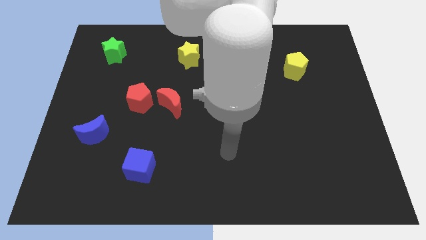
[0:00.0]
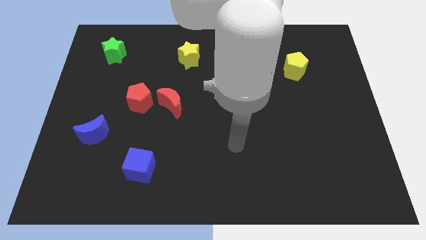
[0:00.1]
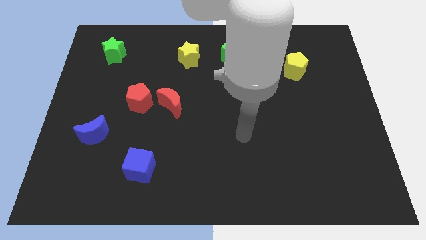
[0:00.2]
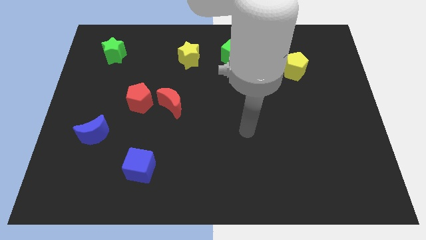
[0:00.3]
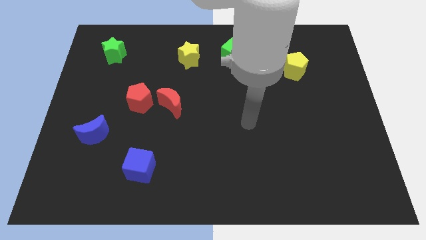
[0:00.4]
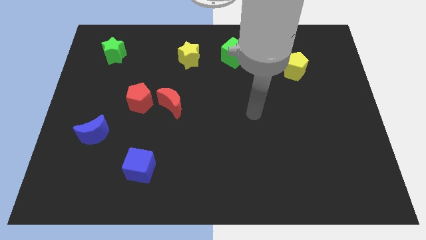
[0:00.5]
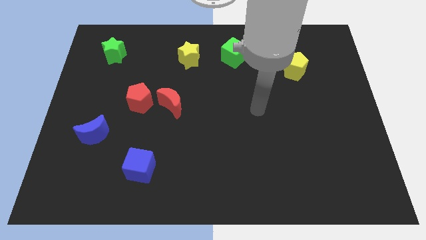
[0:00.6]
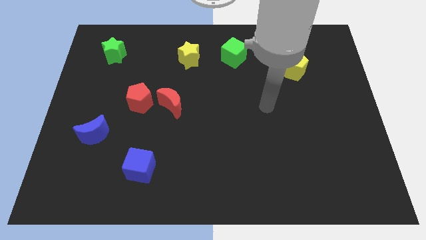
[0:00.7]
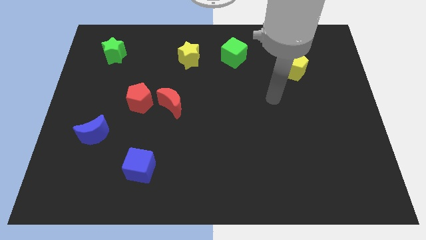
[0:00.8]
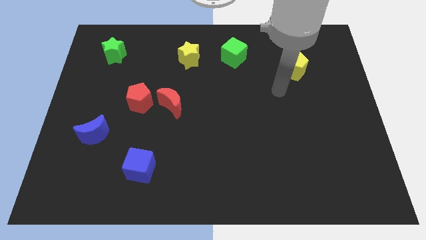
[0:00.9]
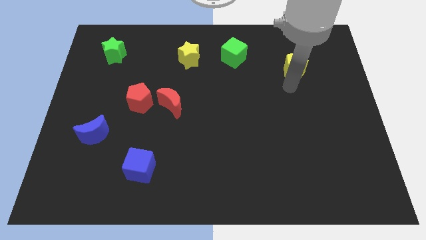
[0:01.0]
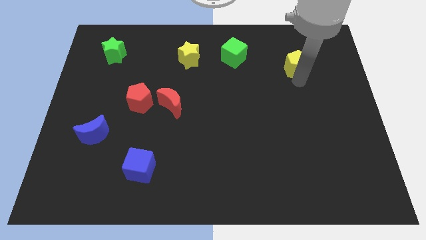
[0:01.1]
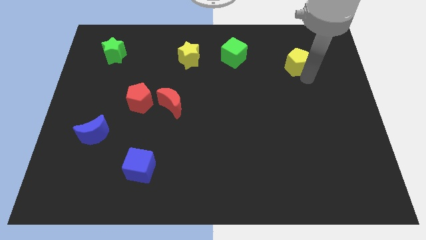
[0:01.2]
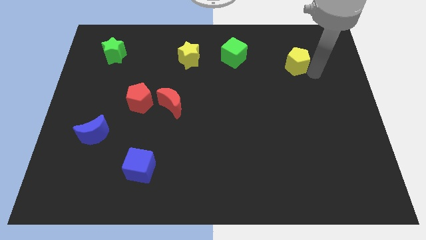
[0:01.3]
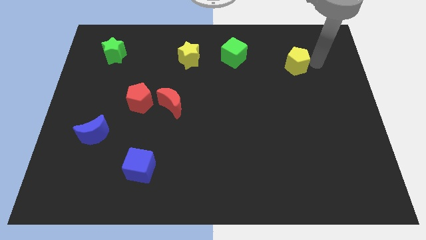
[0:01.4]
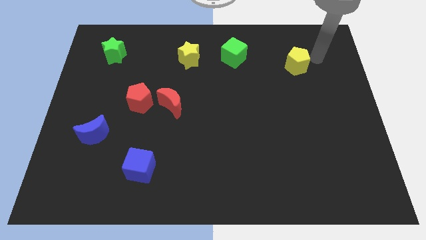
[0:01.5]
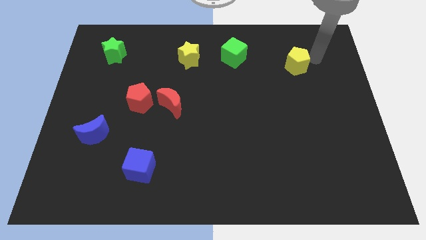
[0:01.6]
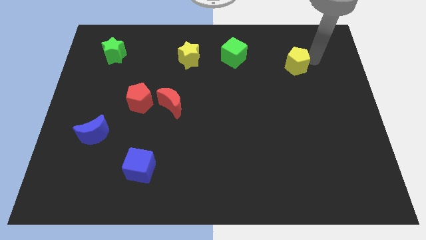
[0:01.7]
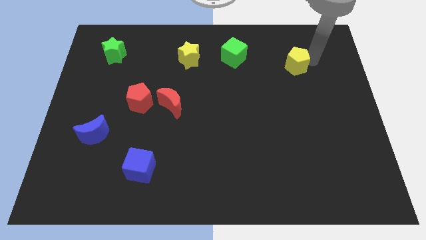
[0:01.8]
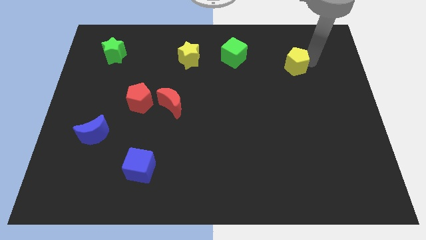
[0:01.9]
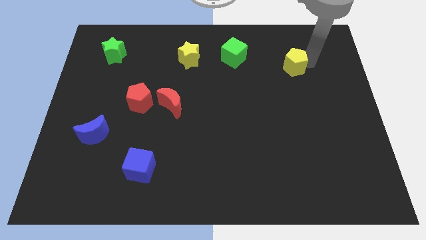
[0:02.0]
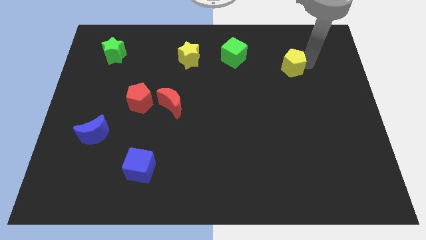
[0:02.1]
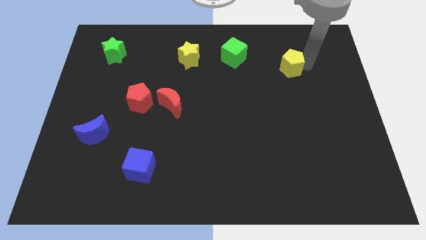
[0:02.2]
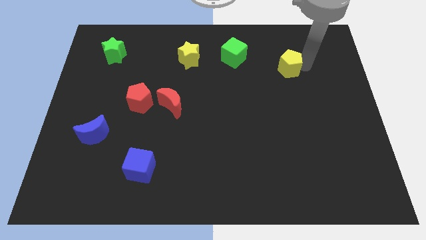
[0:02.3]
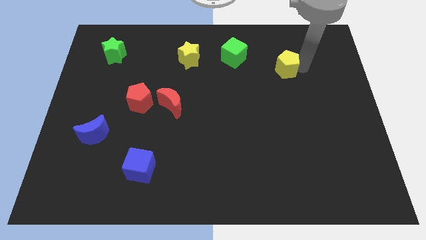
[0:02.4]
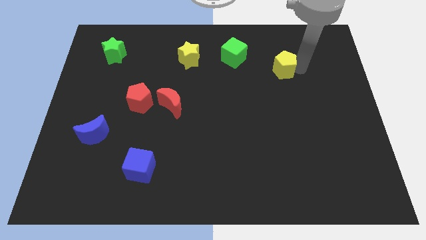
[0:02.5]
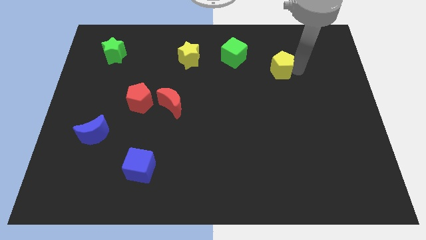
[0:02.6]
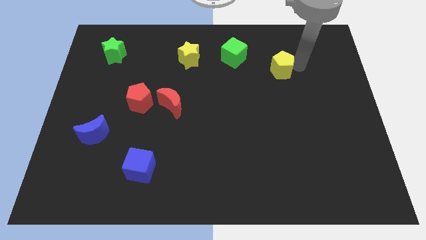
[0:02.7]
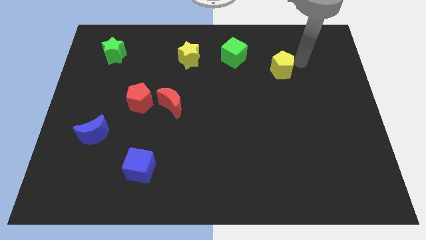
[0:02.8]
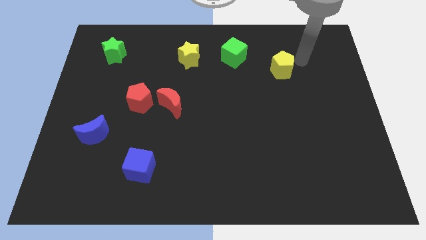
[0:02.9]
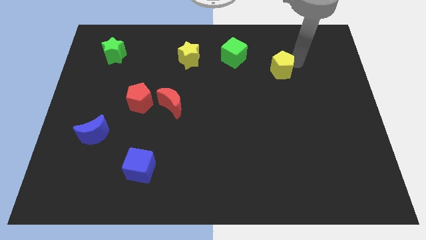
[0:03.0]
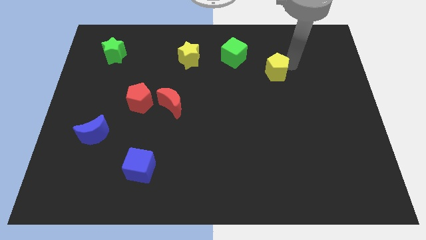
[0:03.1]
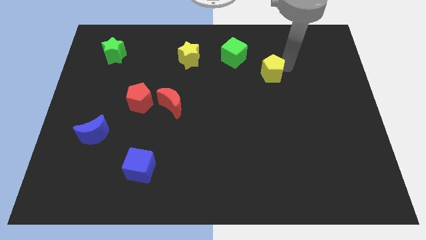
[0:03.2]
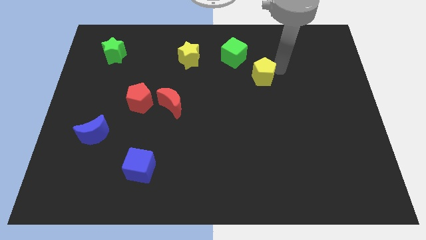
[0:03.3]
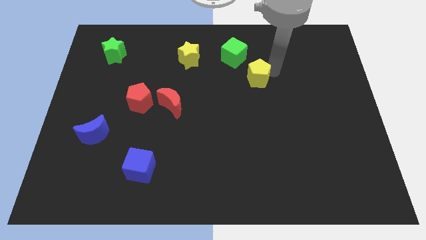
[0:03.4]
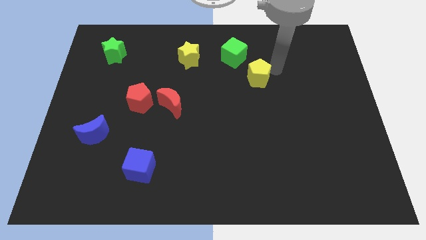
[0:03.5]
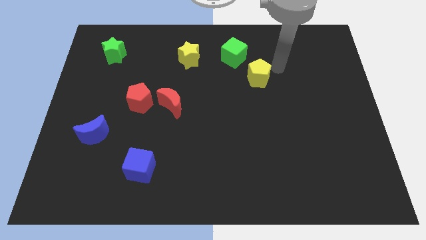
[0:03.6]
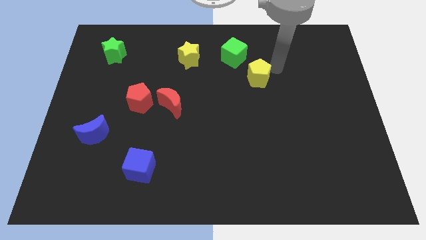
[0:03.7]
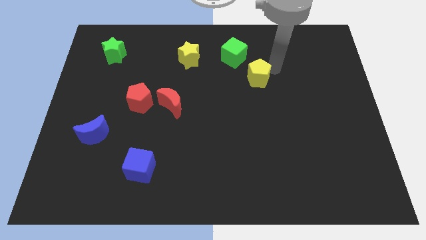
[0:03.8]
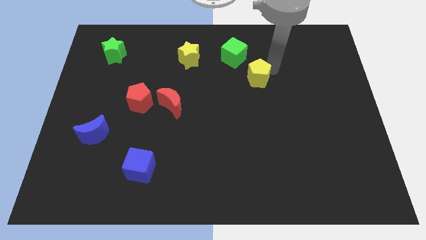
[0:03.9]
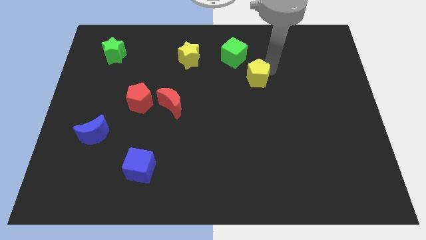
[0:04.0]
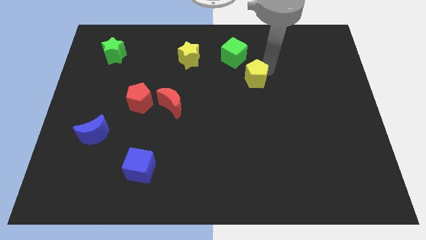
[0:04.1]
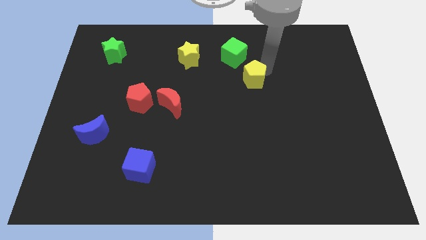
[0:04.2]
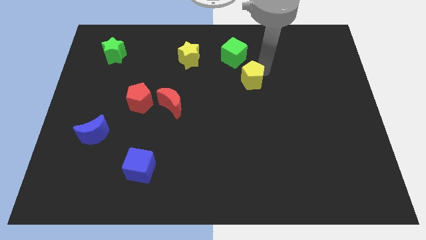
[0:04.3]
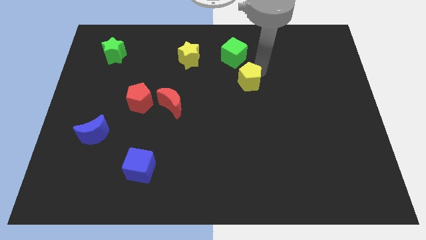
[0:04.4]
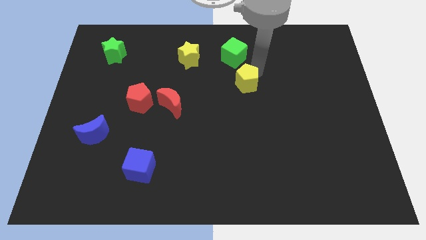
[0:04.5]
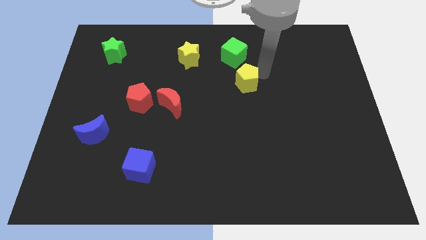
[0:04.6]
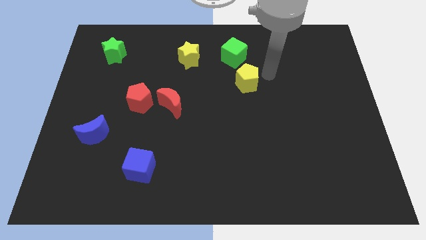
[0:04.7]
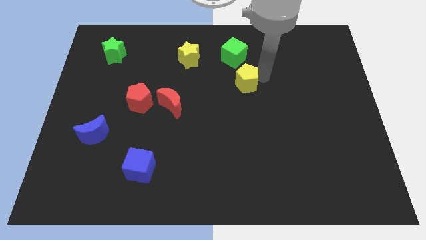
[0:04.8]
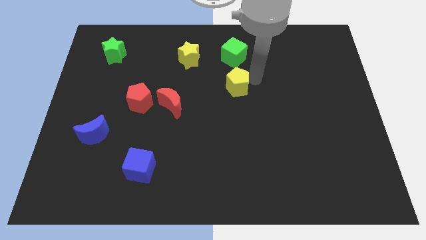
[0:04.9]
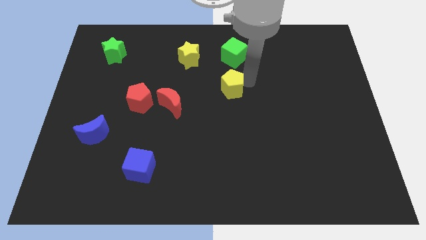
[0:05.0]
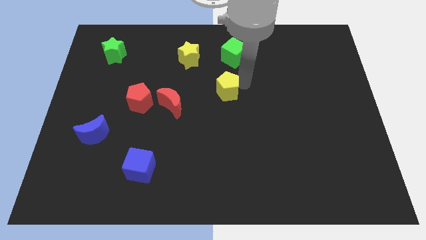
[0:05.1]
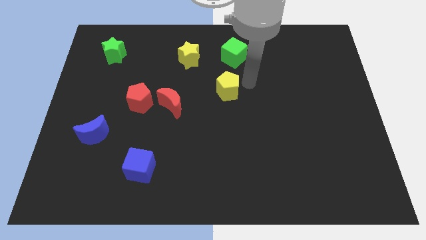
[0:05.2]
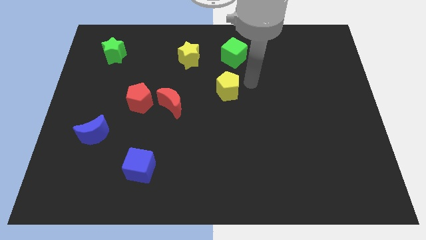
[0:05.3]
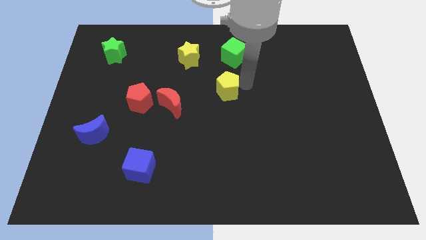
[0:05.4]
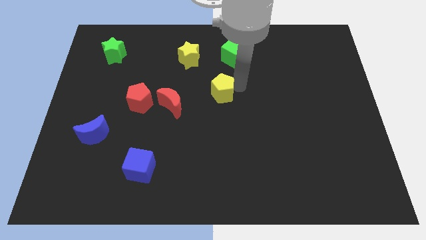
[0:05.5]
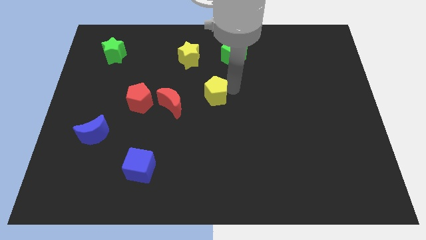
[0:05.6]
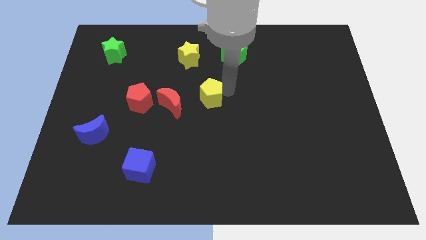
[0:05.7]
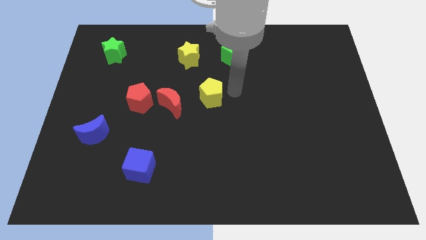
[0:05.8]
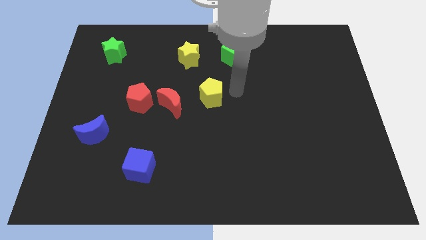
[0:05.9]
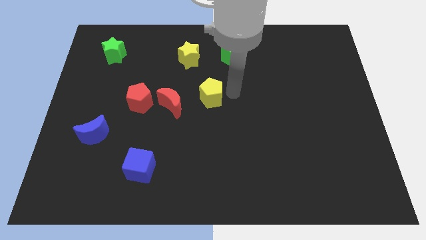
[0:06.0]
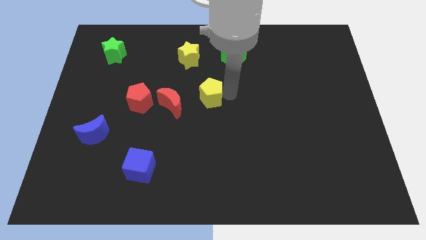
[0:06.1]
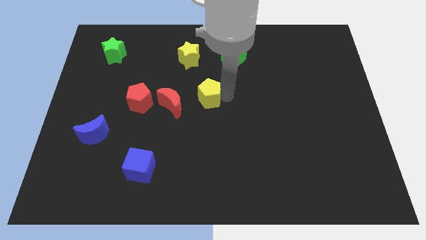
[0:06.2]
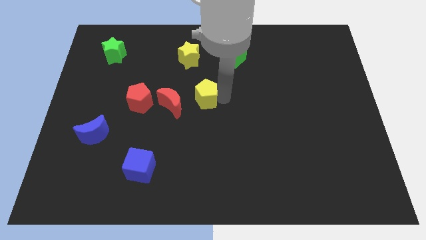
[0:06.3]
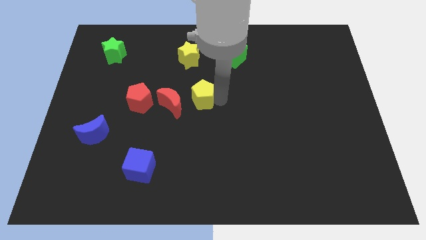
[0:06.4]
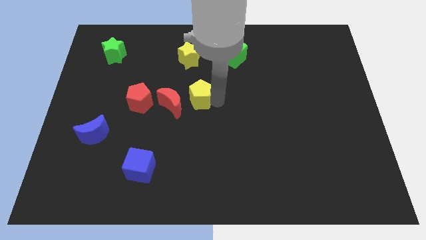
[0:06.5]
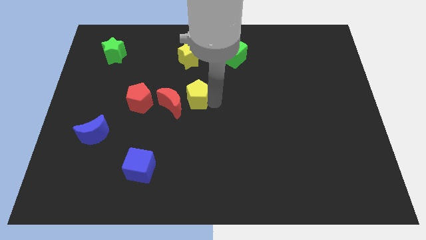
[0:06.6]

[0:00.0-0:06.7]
push the yellow pentagon next to the red moon
